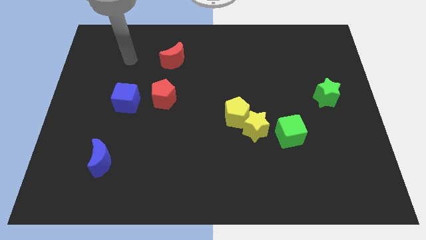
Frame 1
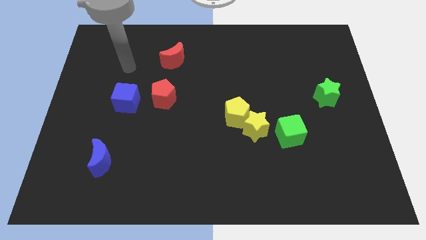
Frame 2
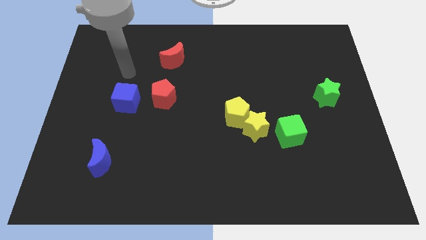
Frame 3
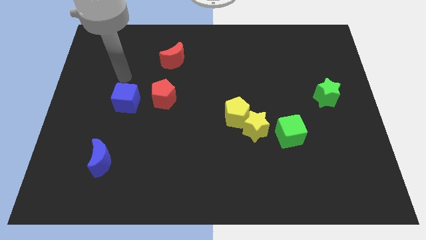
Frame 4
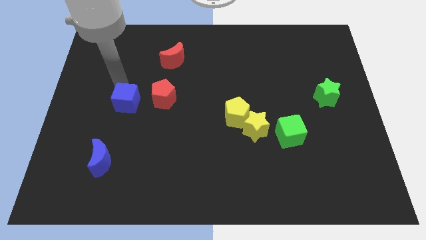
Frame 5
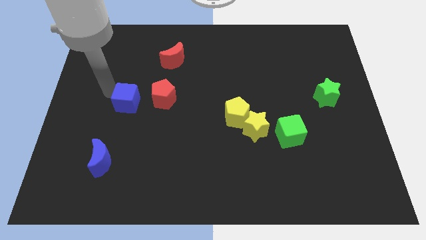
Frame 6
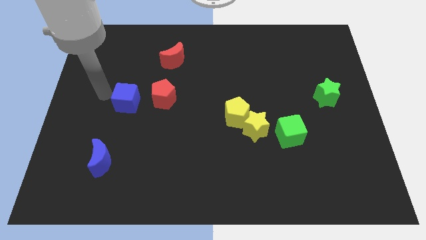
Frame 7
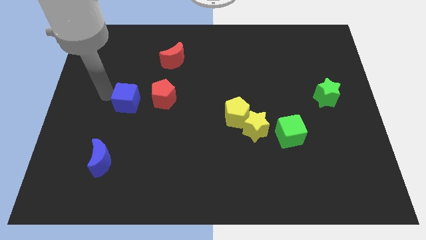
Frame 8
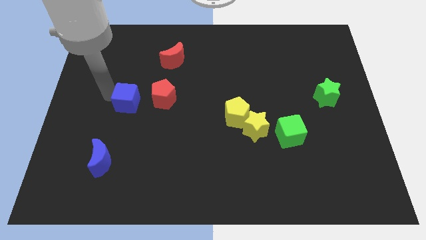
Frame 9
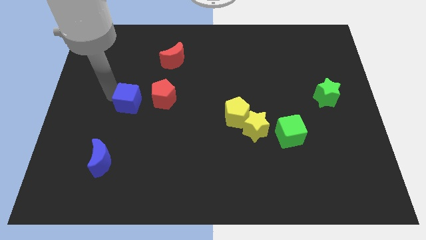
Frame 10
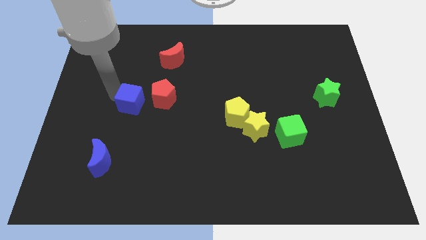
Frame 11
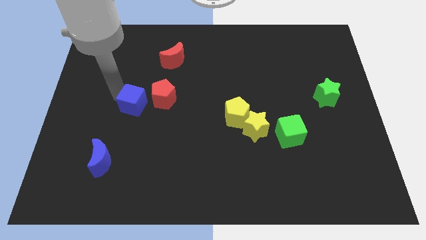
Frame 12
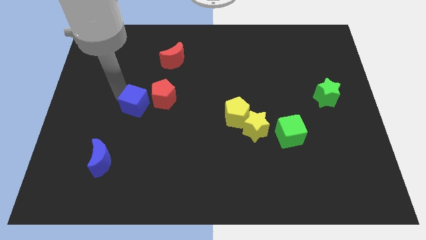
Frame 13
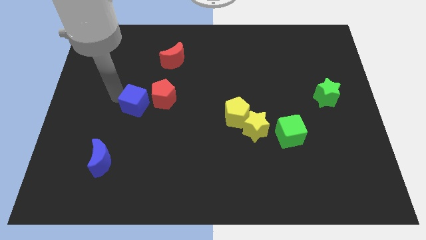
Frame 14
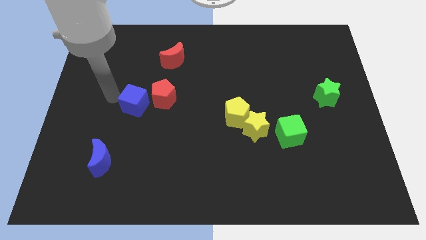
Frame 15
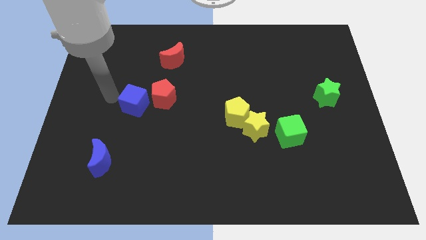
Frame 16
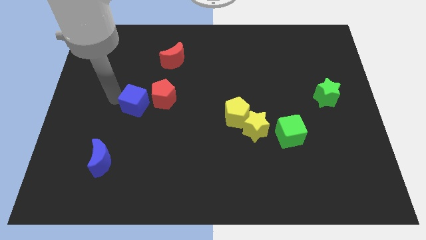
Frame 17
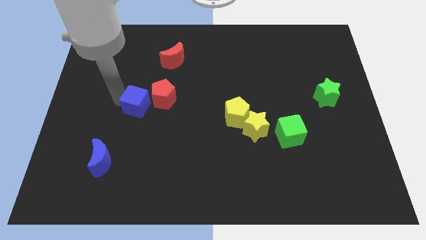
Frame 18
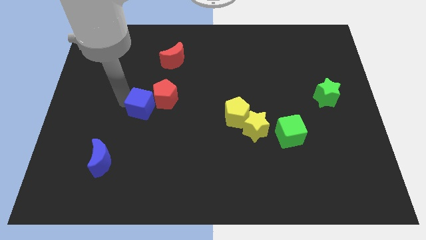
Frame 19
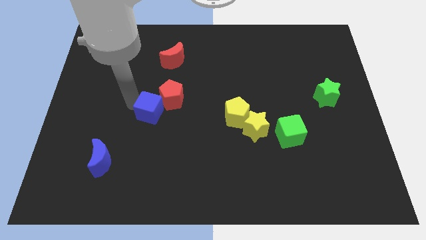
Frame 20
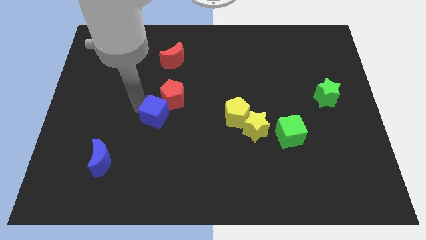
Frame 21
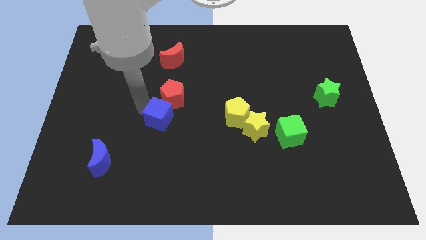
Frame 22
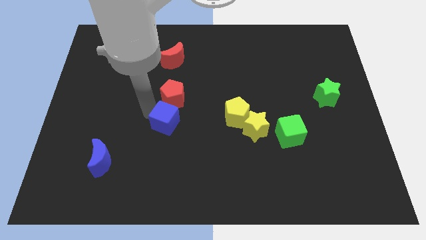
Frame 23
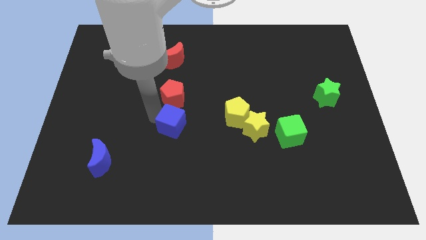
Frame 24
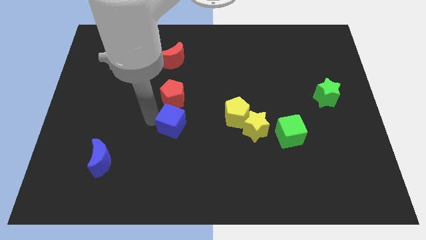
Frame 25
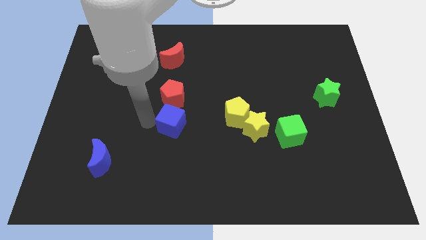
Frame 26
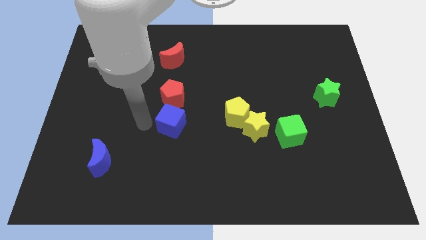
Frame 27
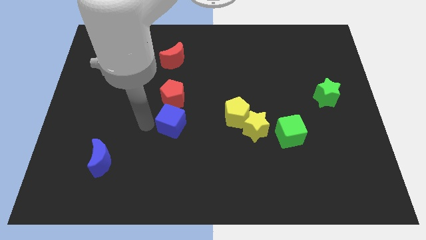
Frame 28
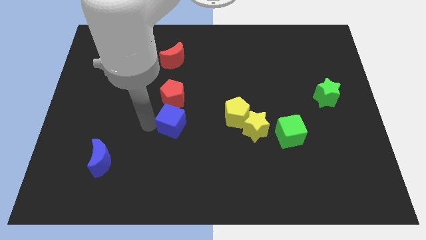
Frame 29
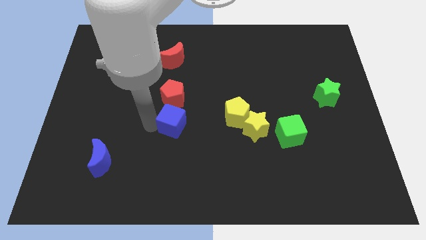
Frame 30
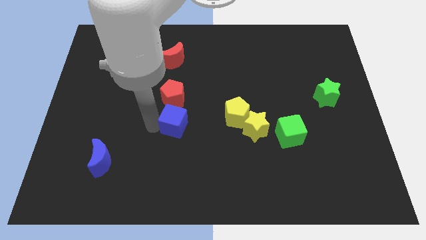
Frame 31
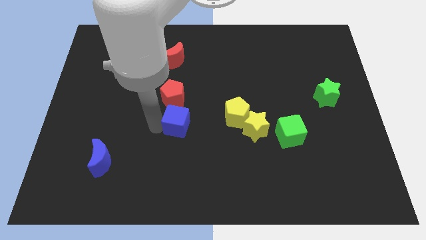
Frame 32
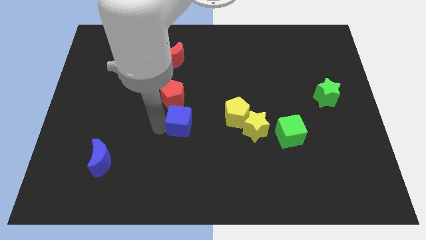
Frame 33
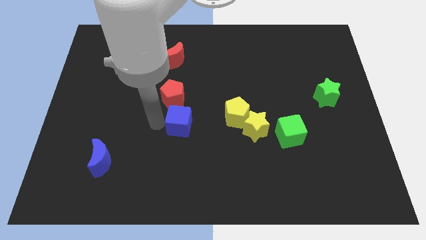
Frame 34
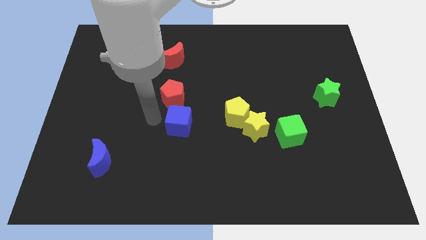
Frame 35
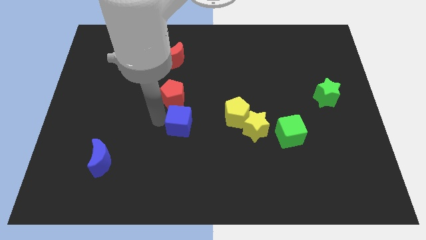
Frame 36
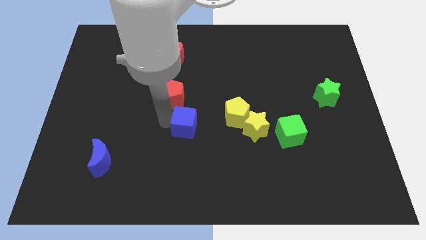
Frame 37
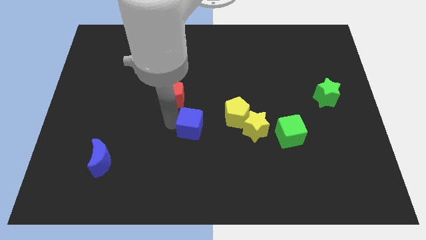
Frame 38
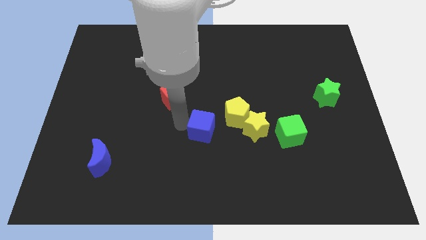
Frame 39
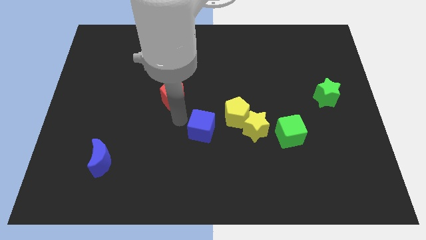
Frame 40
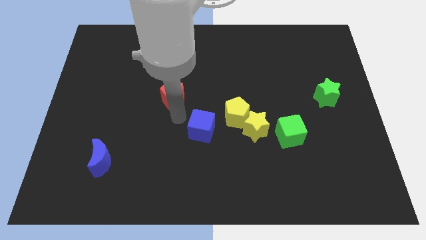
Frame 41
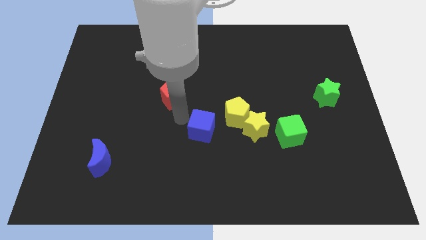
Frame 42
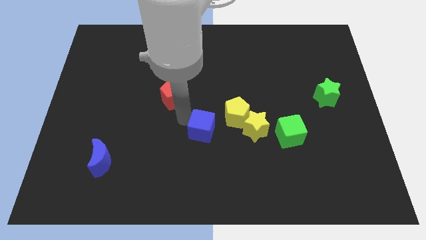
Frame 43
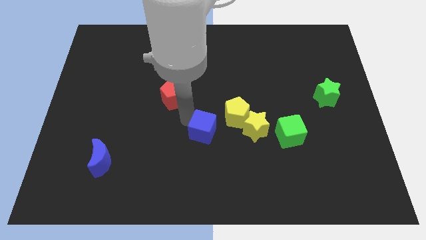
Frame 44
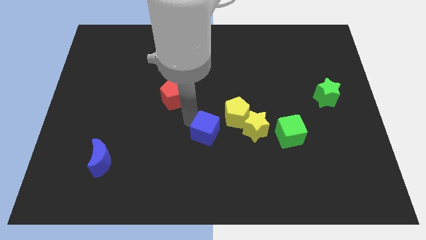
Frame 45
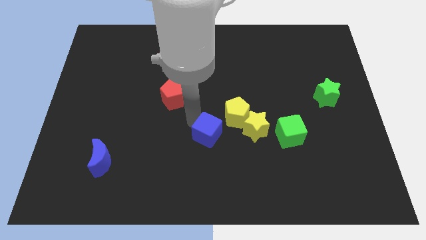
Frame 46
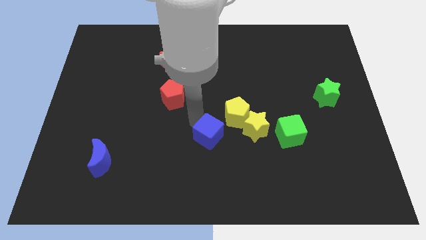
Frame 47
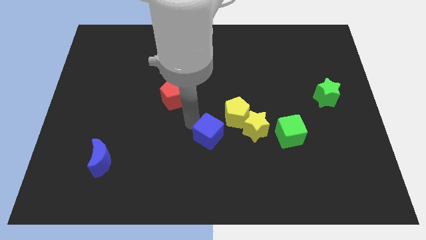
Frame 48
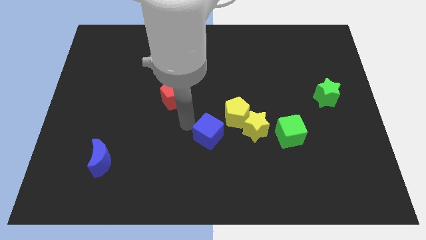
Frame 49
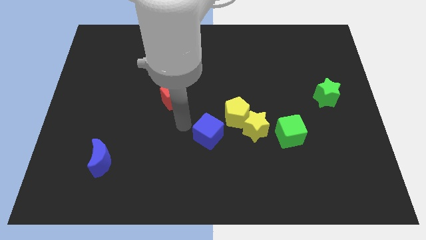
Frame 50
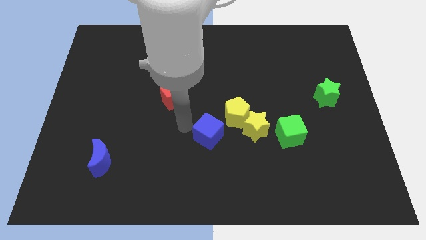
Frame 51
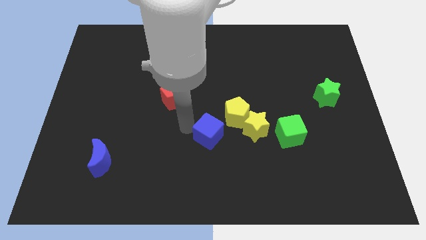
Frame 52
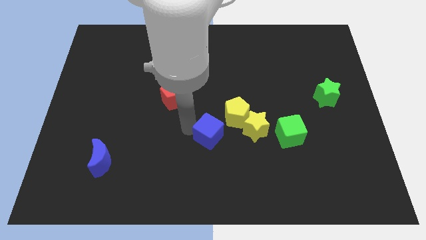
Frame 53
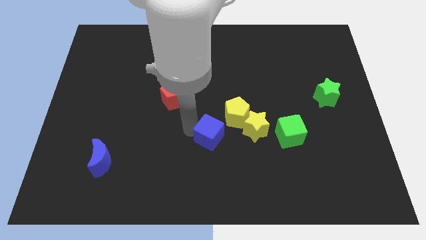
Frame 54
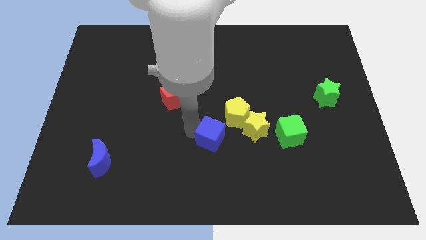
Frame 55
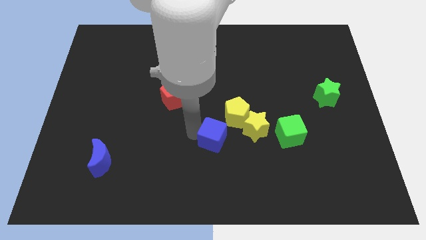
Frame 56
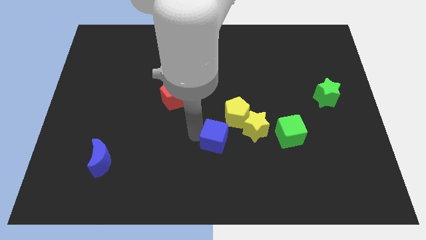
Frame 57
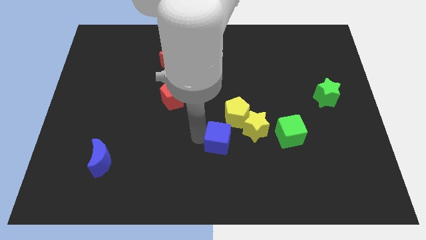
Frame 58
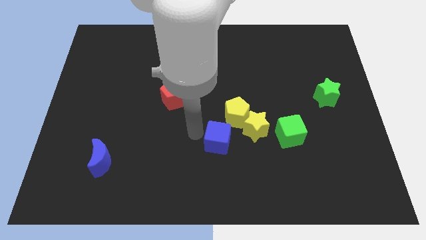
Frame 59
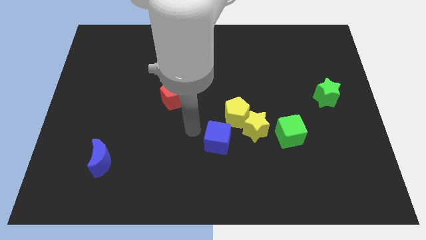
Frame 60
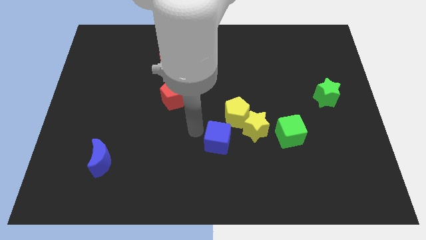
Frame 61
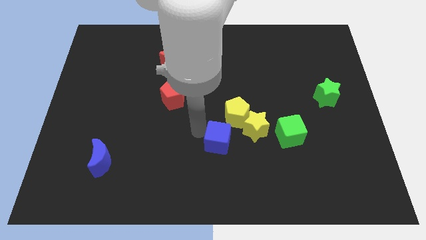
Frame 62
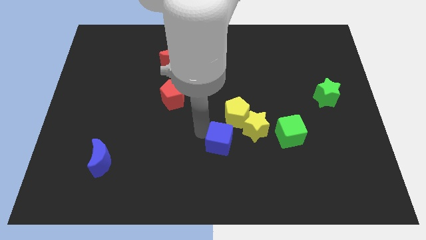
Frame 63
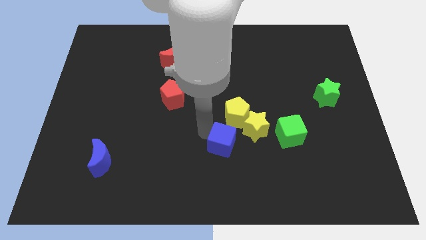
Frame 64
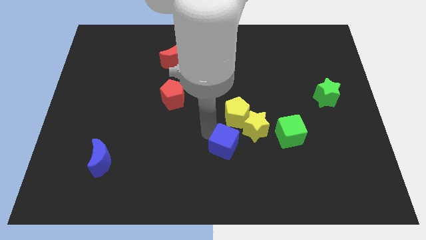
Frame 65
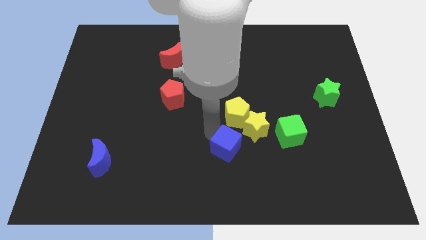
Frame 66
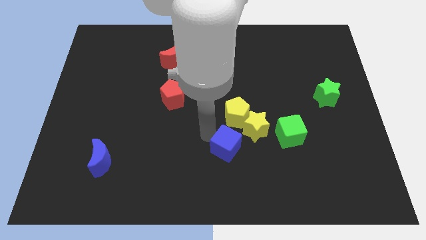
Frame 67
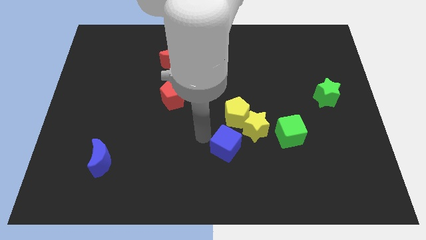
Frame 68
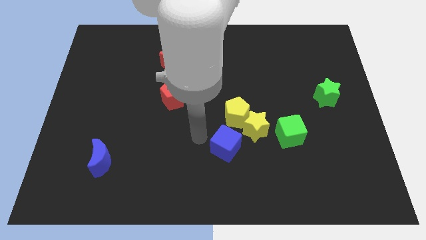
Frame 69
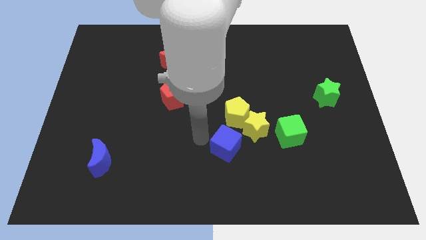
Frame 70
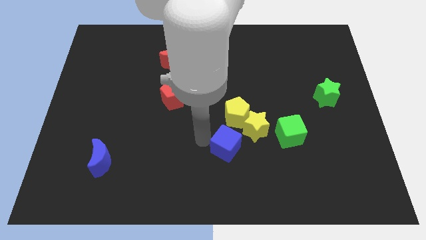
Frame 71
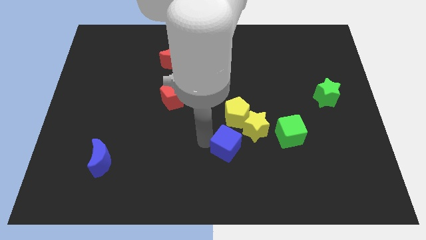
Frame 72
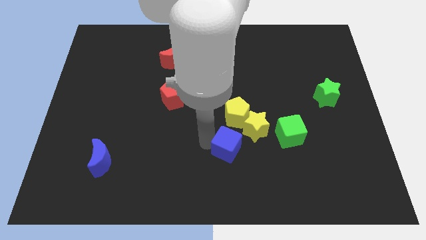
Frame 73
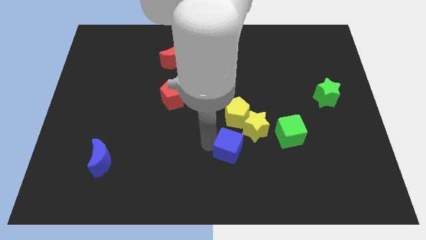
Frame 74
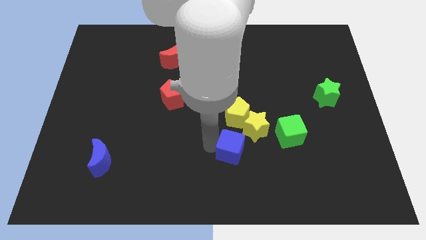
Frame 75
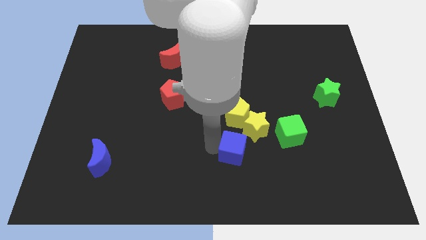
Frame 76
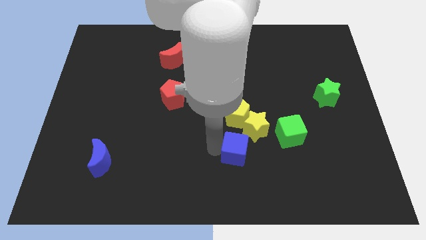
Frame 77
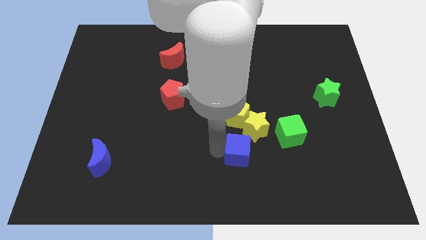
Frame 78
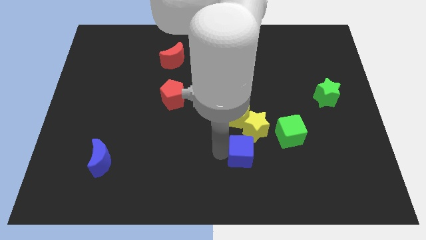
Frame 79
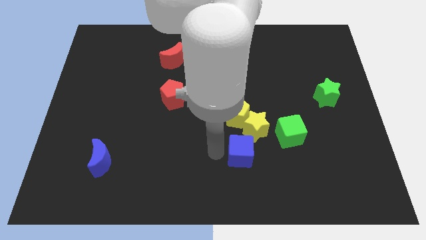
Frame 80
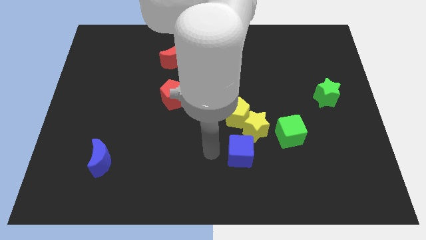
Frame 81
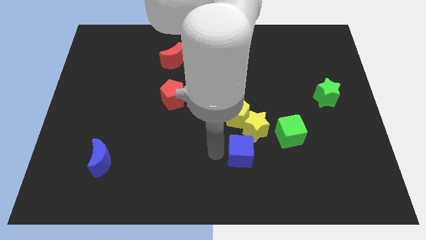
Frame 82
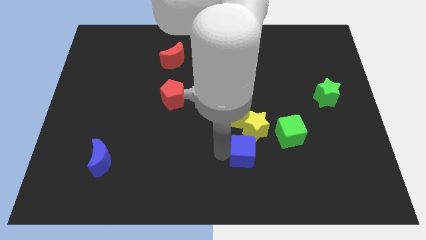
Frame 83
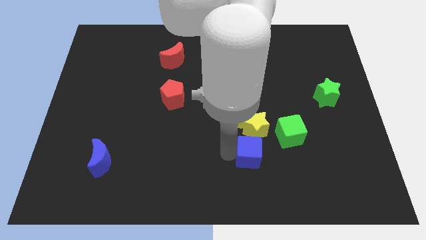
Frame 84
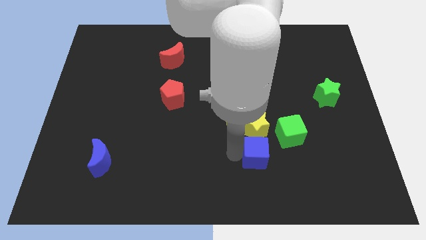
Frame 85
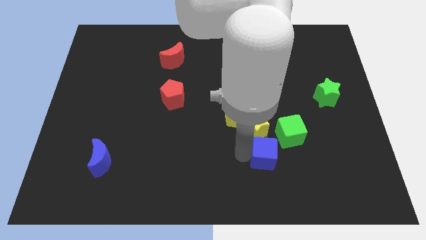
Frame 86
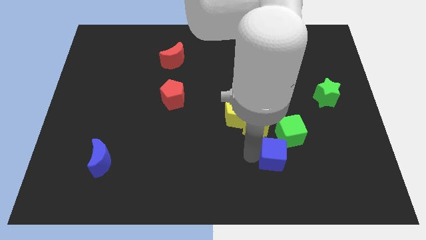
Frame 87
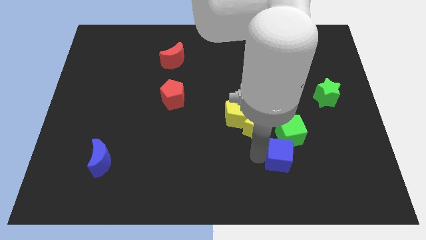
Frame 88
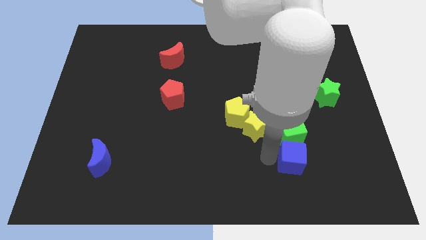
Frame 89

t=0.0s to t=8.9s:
move the blue cube to the bottom right of the green cube
